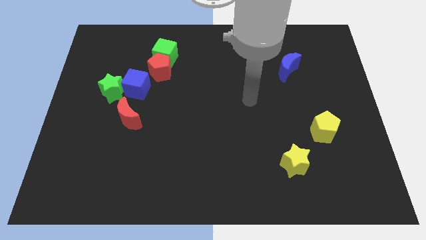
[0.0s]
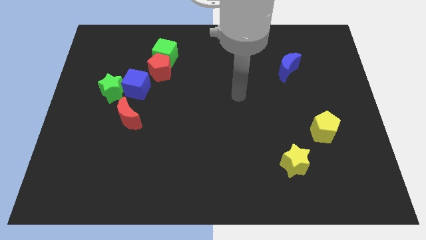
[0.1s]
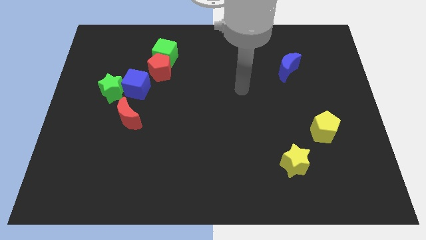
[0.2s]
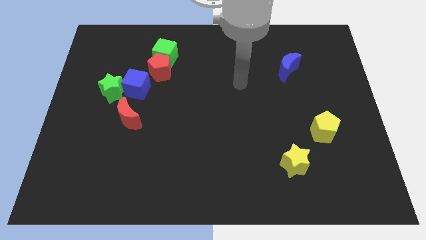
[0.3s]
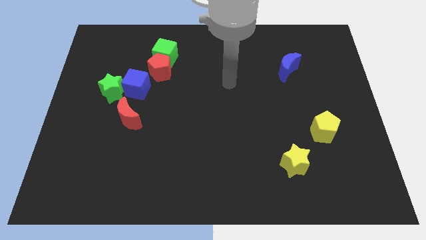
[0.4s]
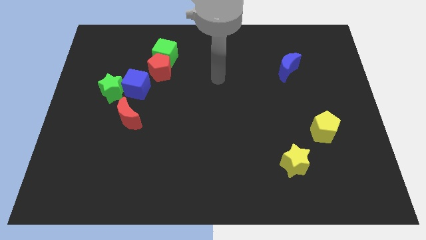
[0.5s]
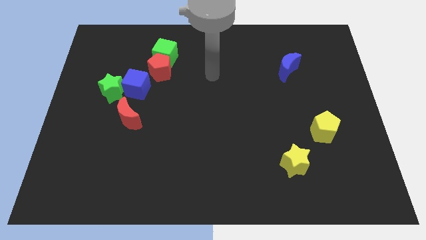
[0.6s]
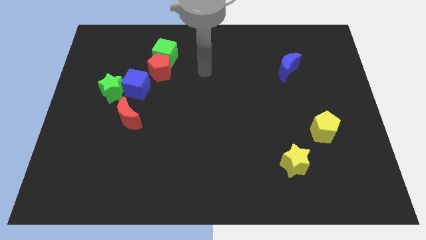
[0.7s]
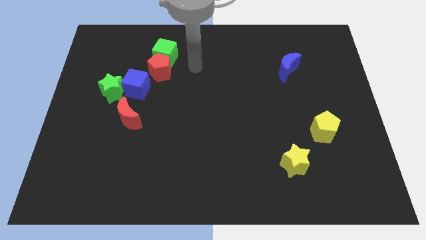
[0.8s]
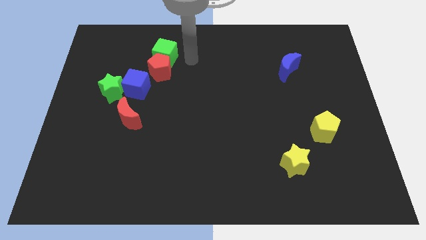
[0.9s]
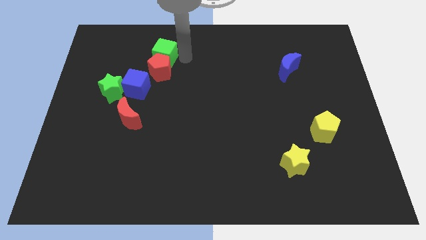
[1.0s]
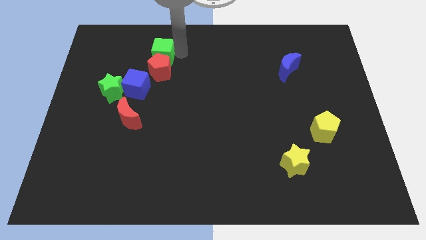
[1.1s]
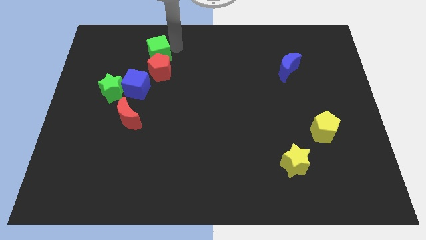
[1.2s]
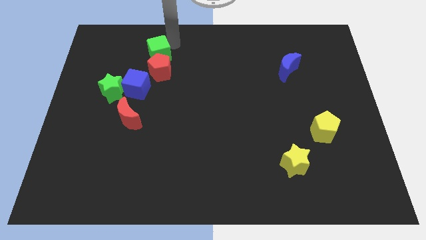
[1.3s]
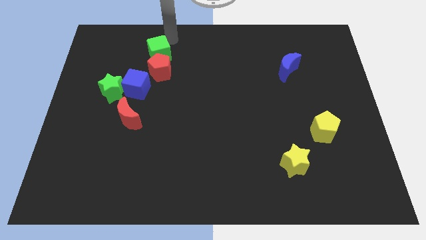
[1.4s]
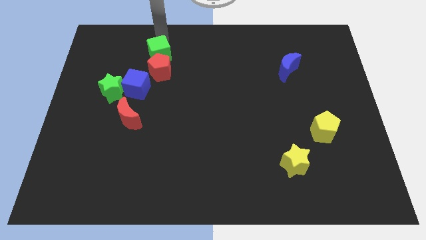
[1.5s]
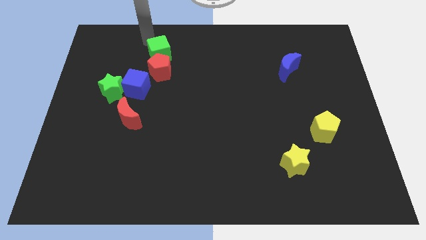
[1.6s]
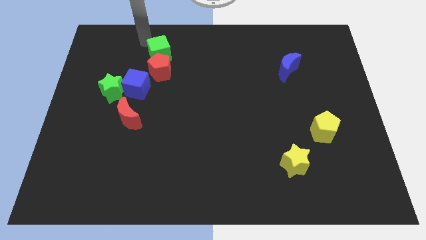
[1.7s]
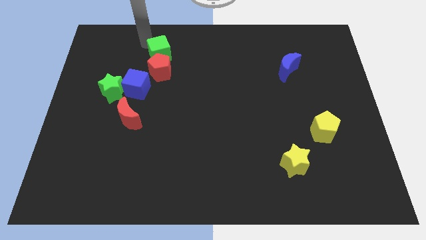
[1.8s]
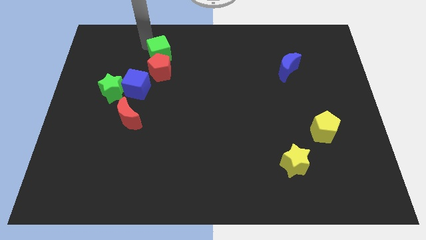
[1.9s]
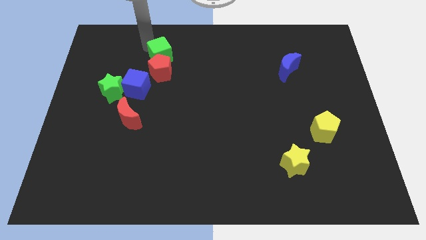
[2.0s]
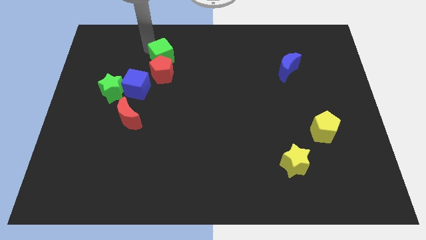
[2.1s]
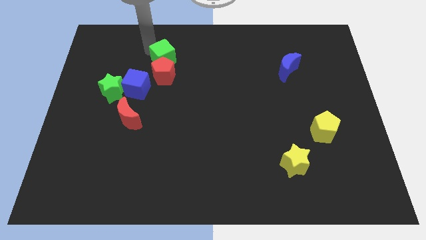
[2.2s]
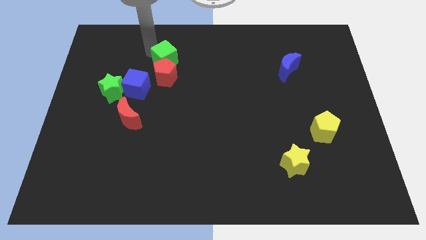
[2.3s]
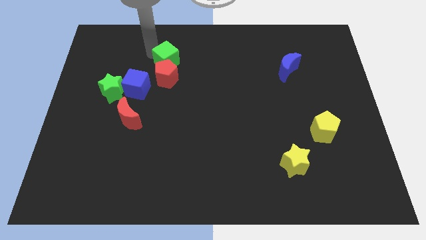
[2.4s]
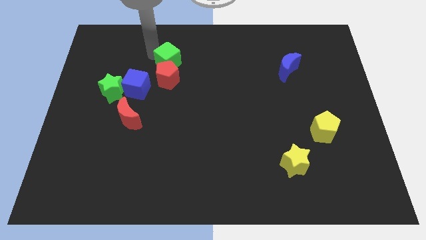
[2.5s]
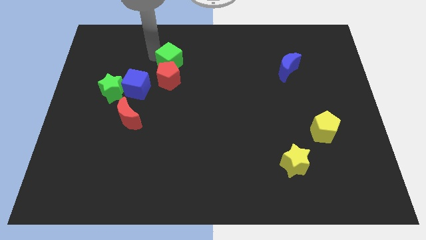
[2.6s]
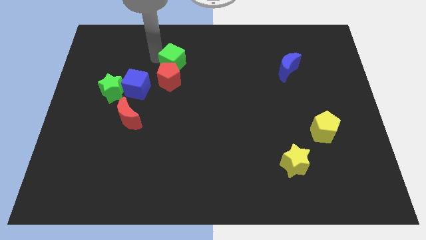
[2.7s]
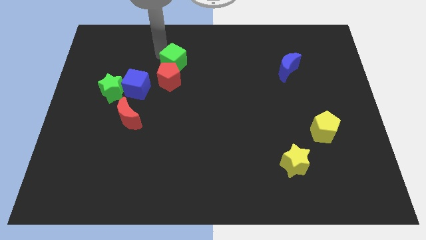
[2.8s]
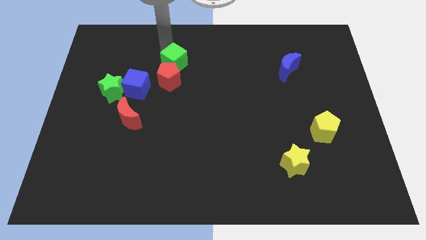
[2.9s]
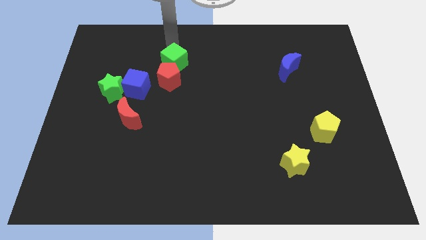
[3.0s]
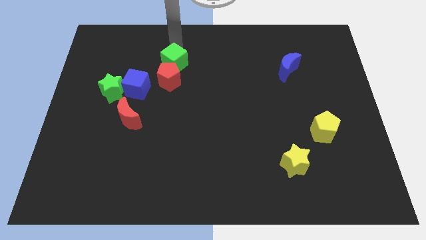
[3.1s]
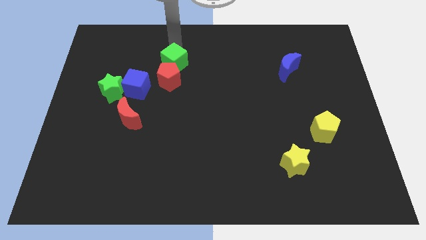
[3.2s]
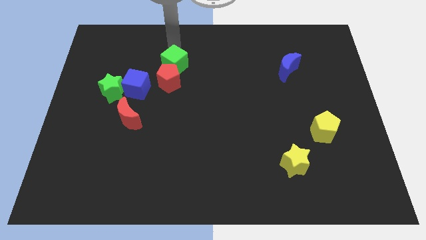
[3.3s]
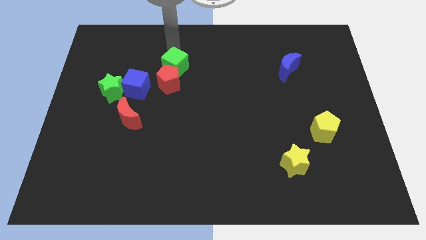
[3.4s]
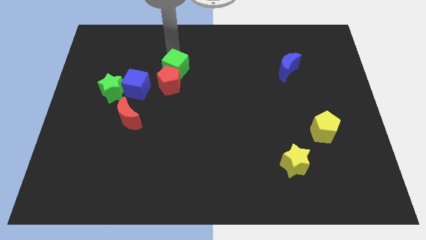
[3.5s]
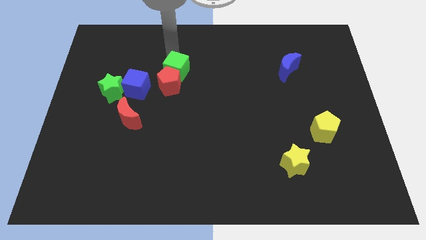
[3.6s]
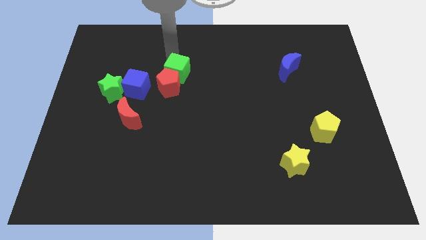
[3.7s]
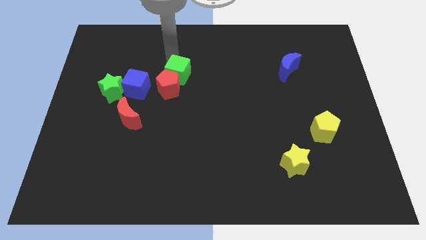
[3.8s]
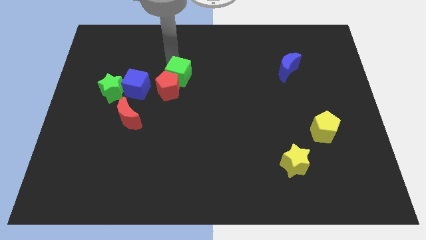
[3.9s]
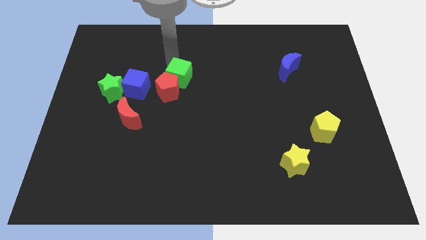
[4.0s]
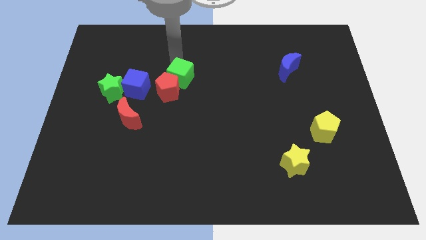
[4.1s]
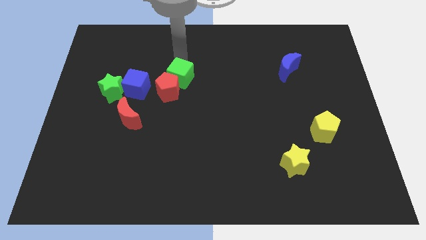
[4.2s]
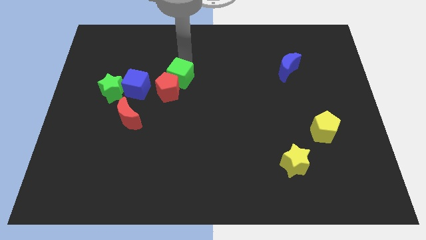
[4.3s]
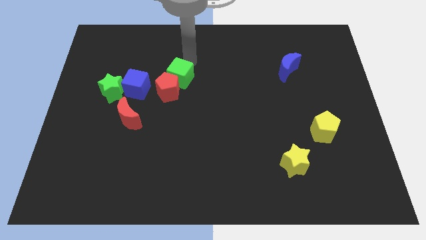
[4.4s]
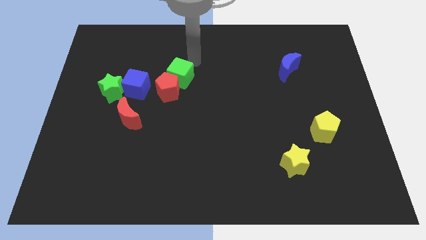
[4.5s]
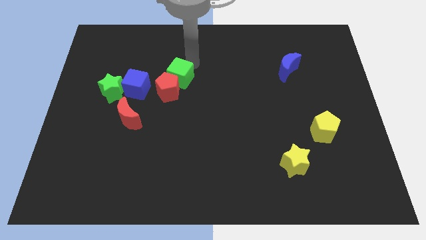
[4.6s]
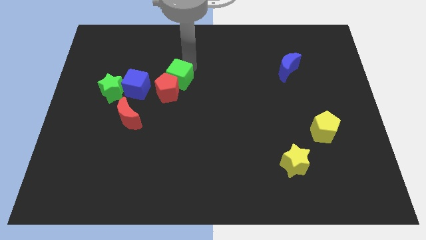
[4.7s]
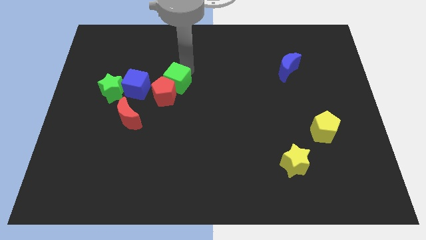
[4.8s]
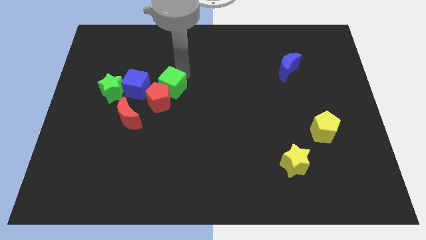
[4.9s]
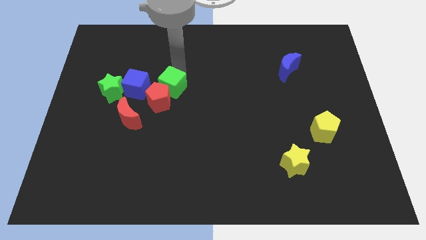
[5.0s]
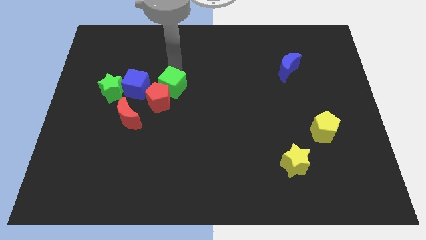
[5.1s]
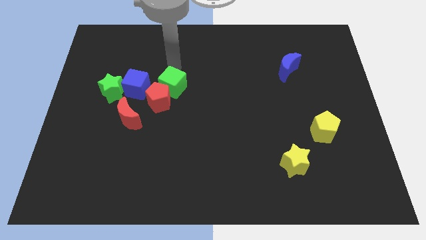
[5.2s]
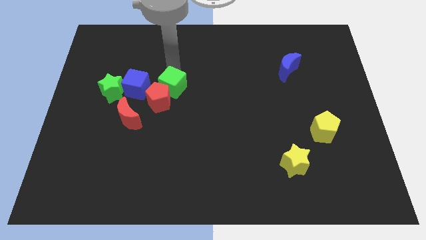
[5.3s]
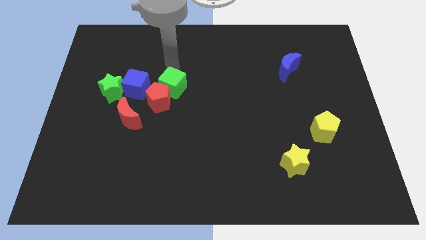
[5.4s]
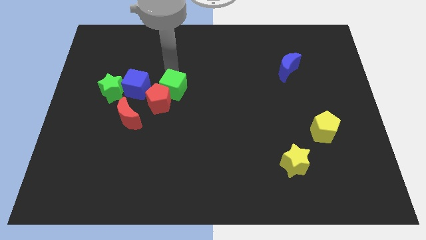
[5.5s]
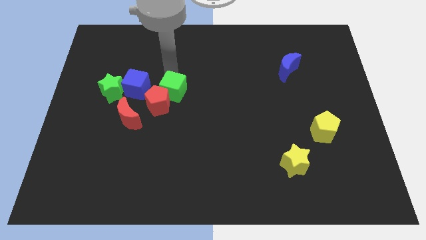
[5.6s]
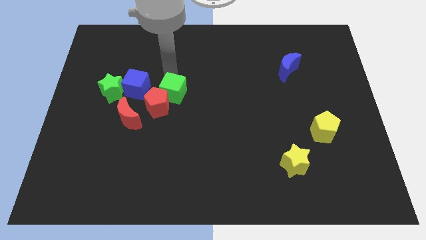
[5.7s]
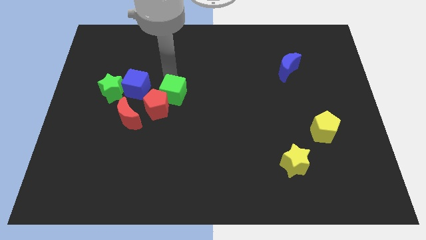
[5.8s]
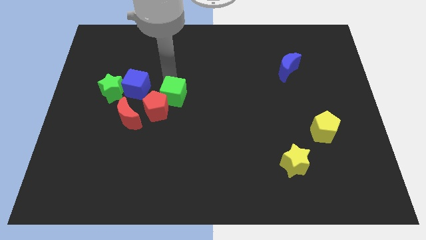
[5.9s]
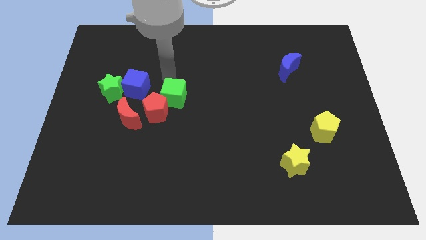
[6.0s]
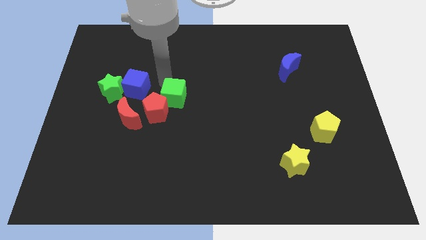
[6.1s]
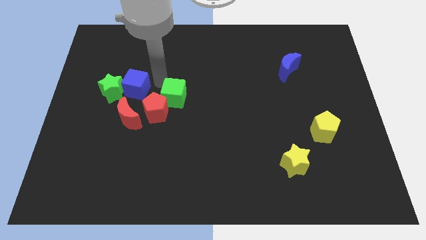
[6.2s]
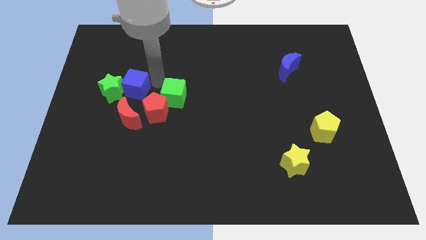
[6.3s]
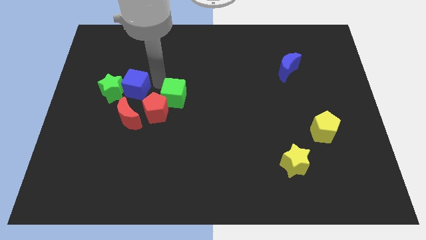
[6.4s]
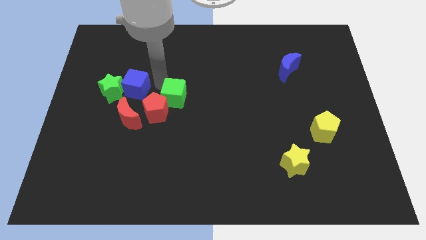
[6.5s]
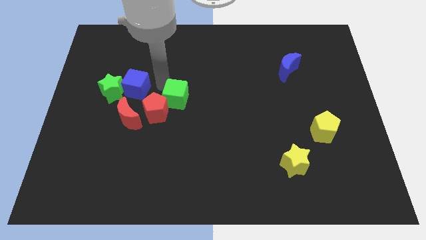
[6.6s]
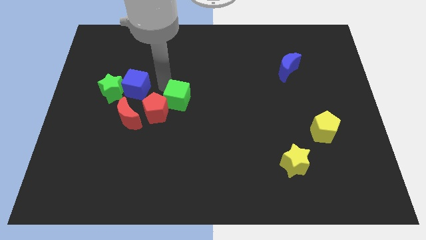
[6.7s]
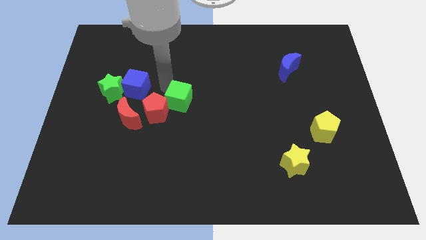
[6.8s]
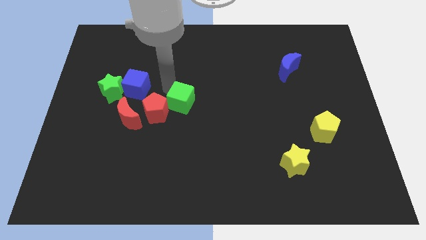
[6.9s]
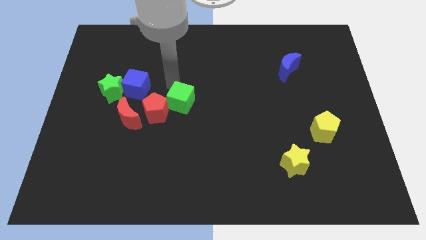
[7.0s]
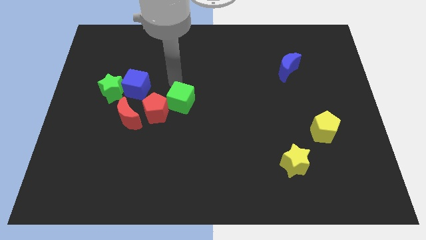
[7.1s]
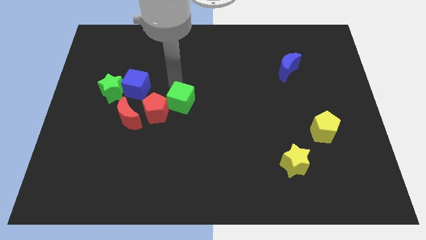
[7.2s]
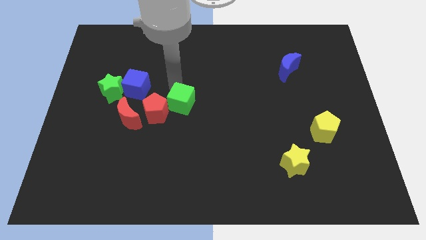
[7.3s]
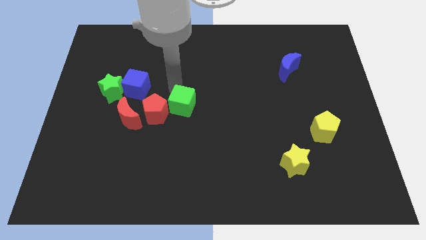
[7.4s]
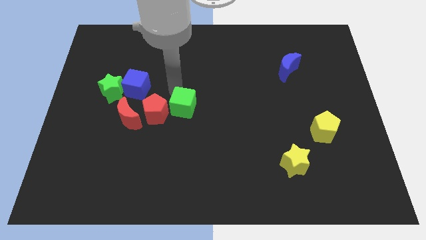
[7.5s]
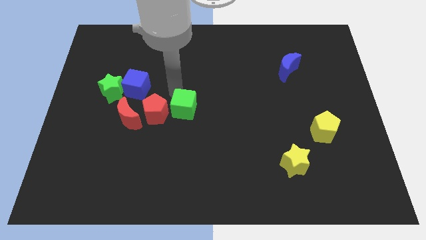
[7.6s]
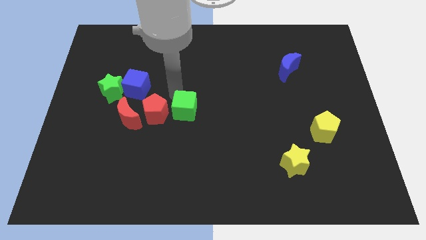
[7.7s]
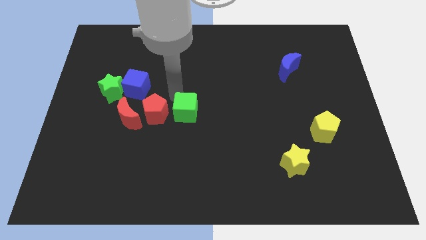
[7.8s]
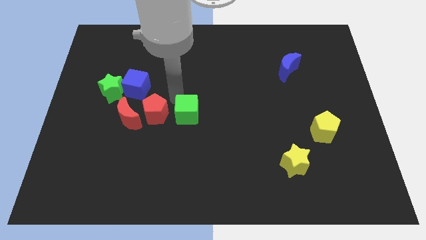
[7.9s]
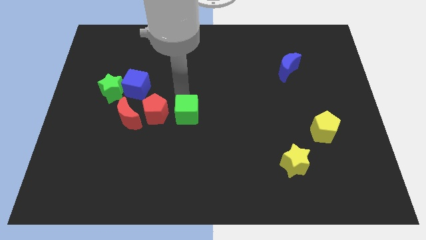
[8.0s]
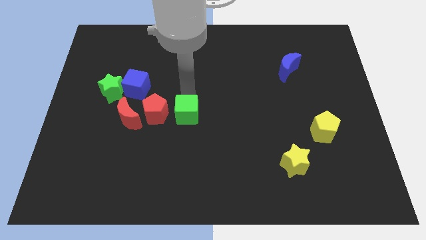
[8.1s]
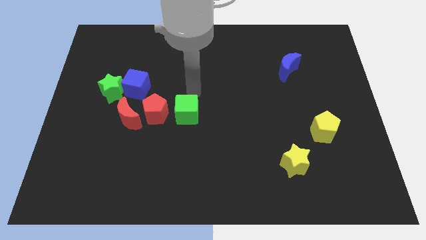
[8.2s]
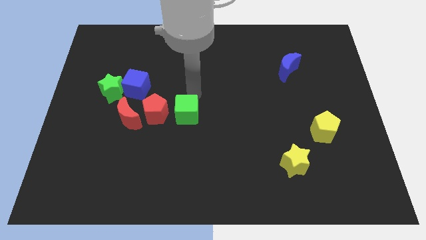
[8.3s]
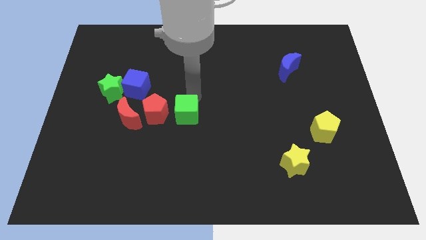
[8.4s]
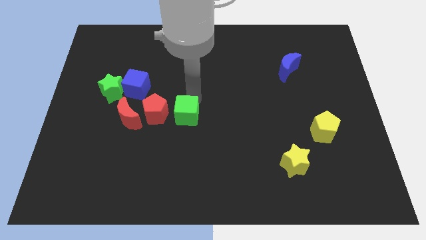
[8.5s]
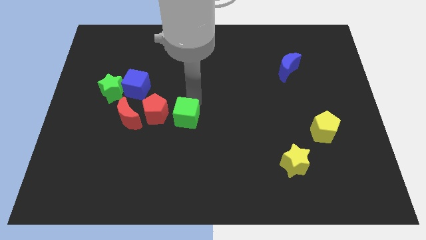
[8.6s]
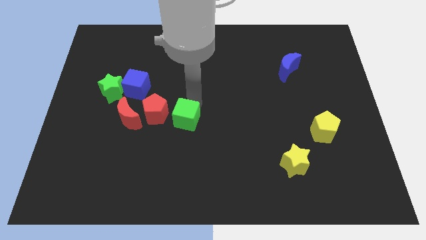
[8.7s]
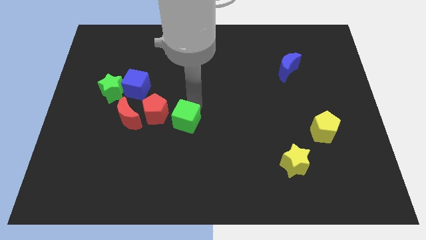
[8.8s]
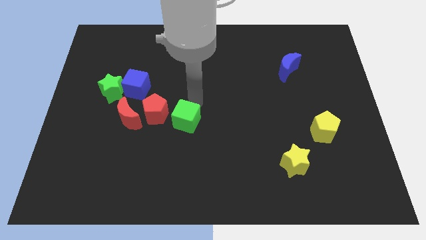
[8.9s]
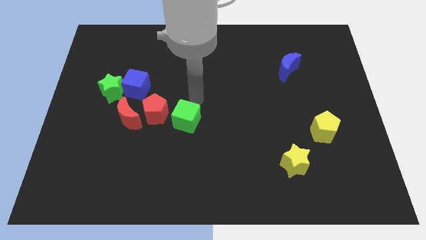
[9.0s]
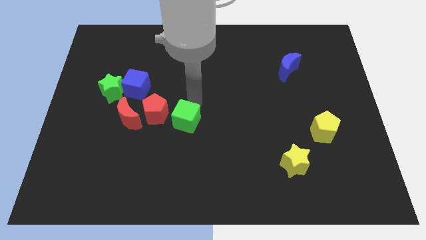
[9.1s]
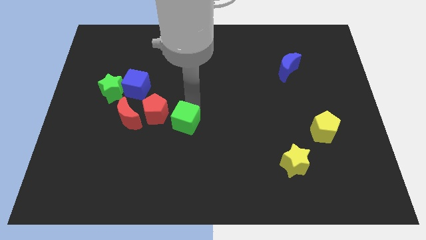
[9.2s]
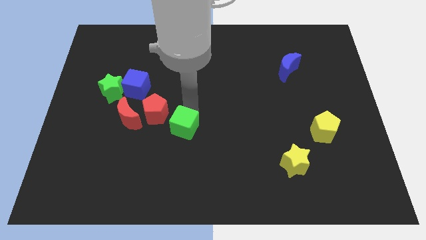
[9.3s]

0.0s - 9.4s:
push the green cube down
